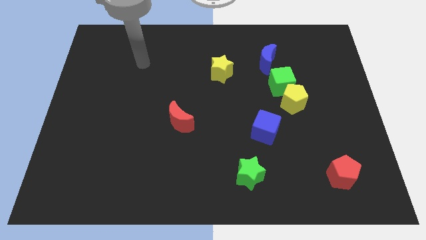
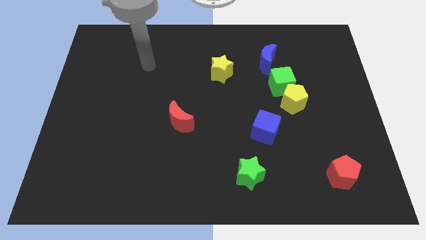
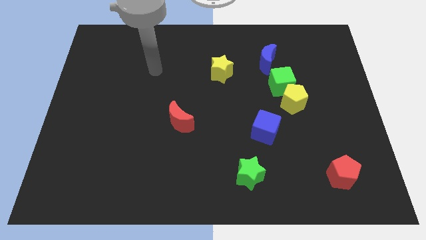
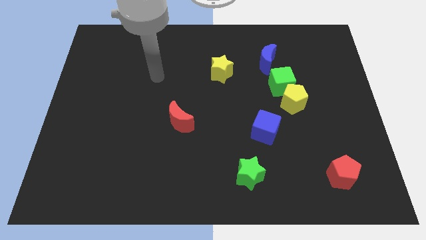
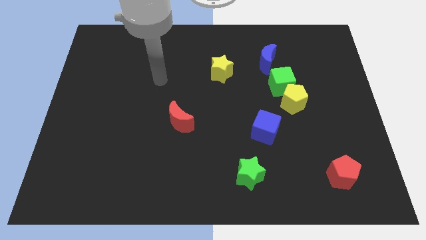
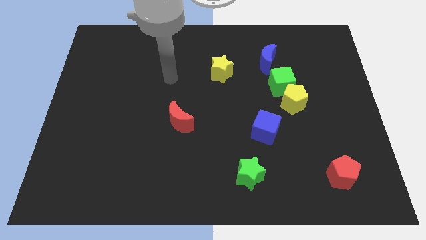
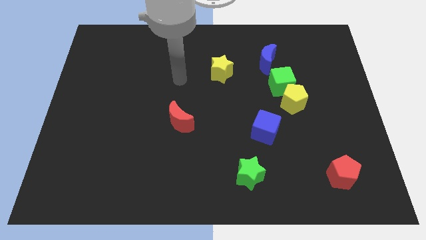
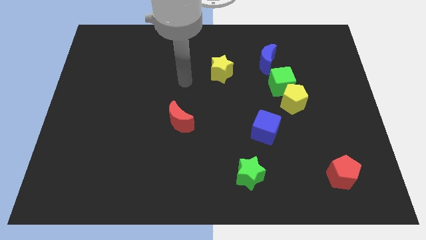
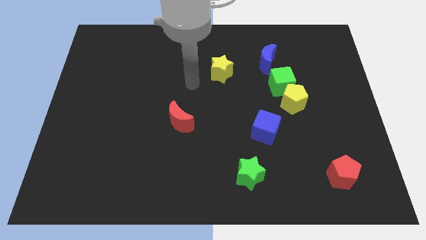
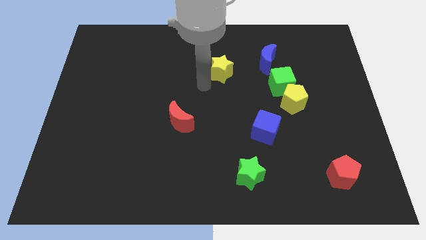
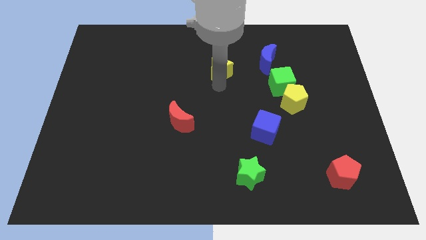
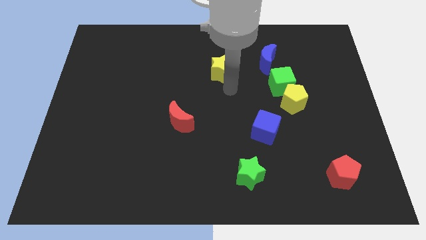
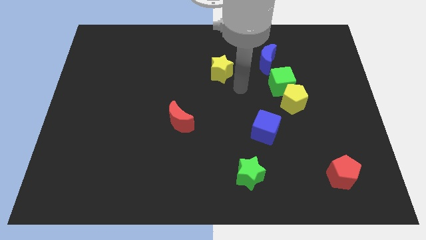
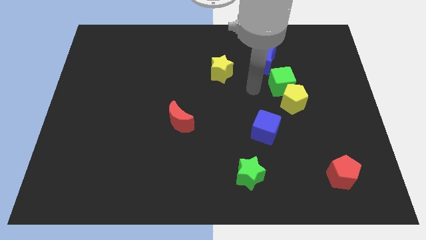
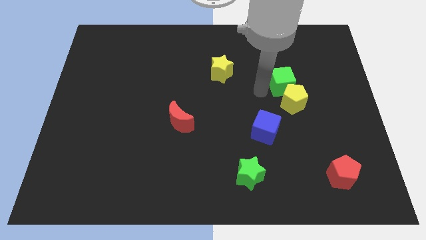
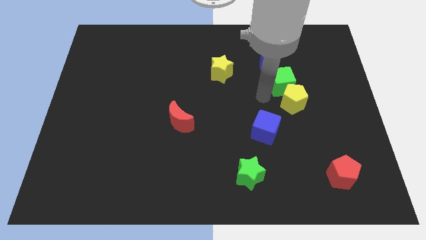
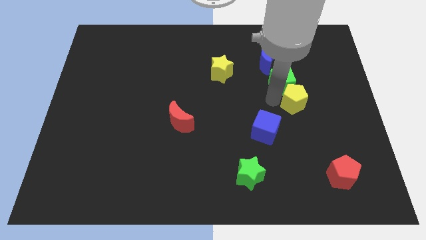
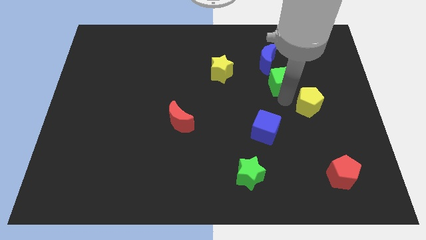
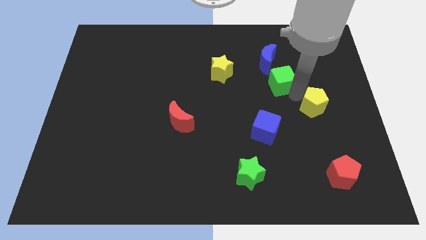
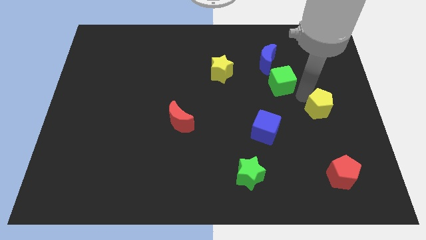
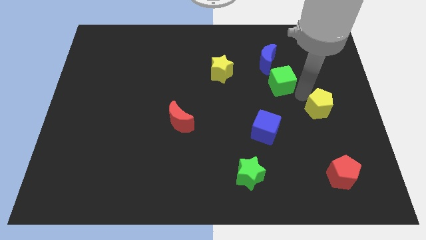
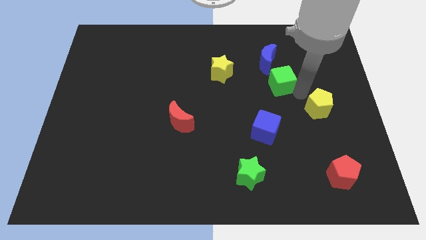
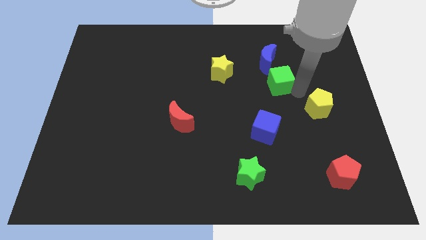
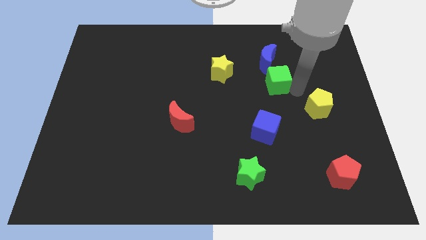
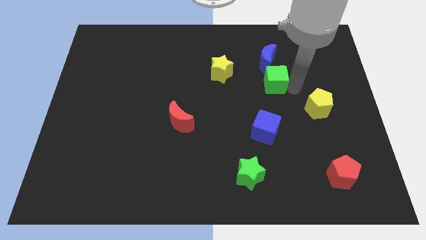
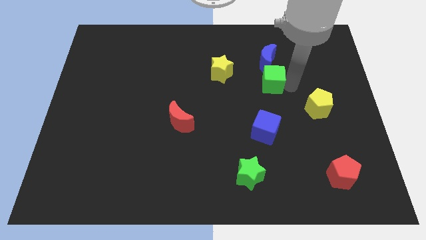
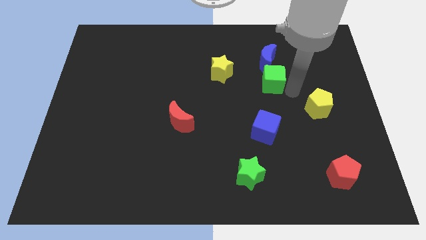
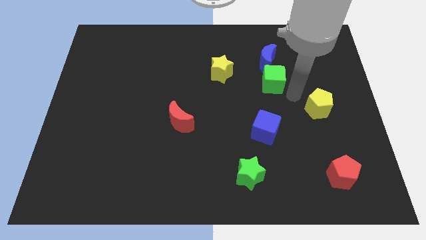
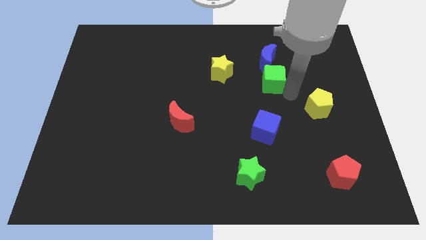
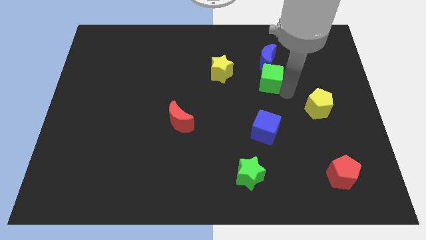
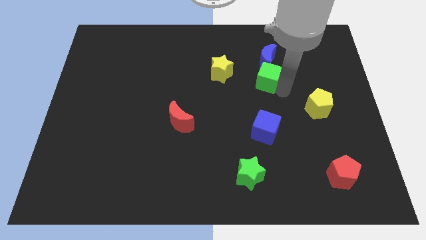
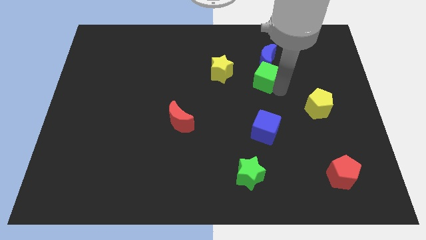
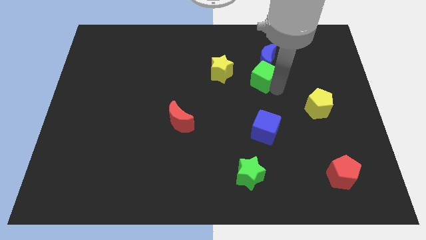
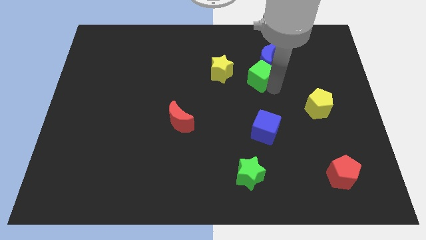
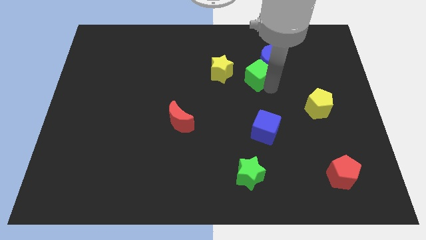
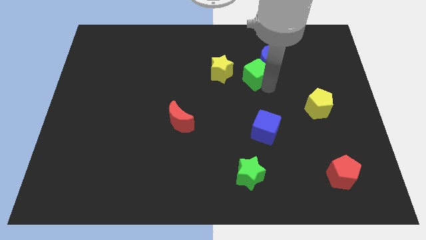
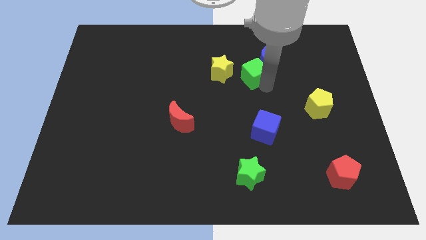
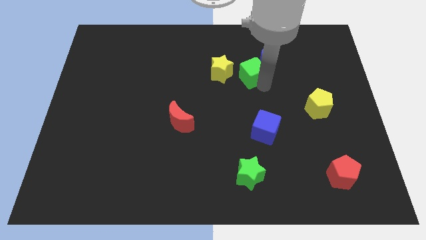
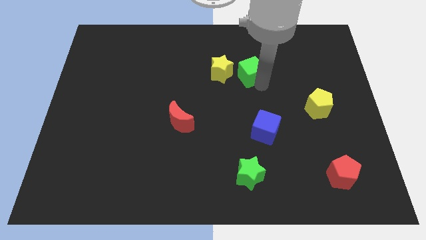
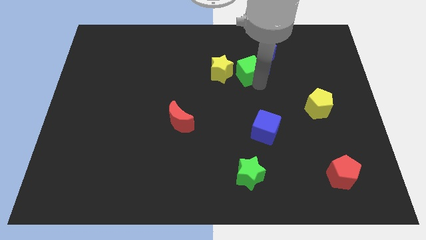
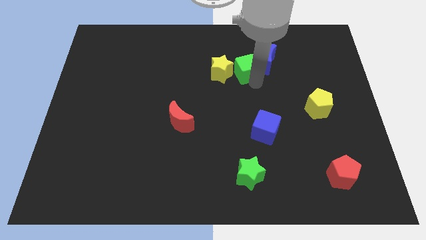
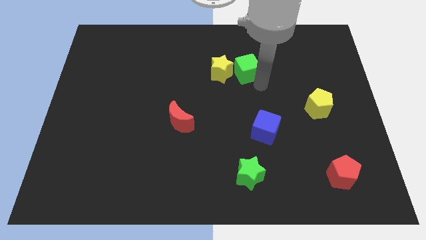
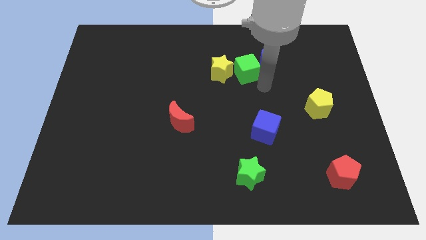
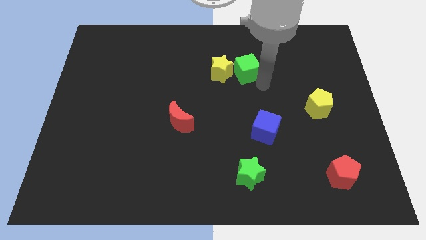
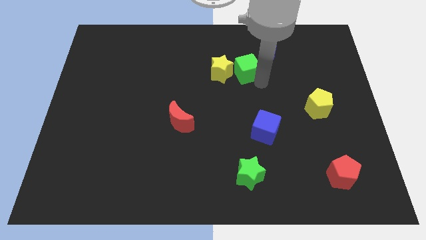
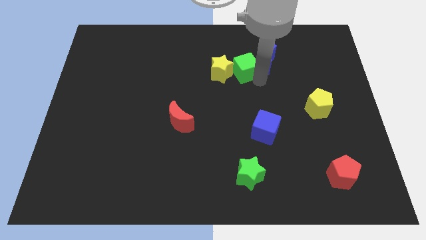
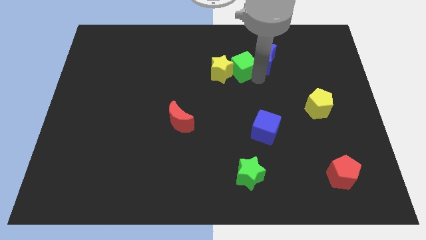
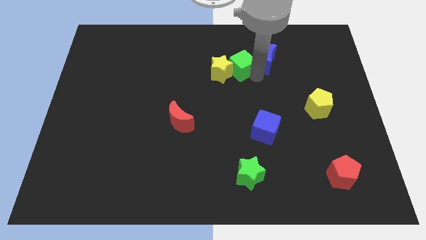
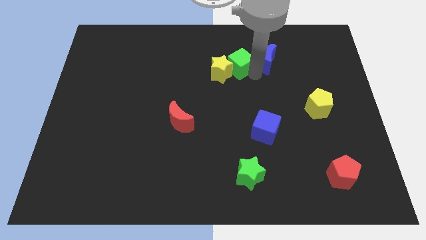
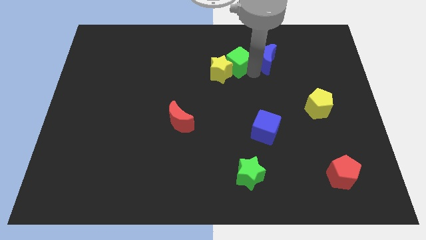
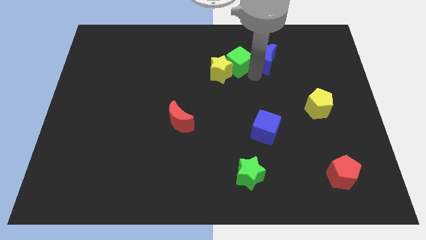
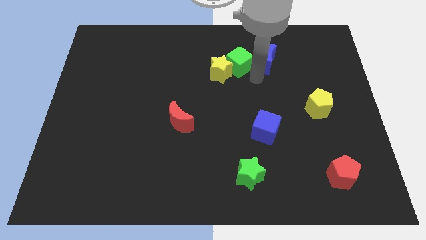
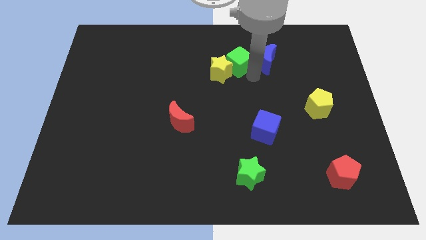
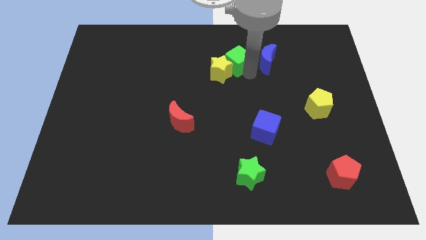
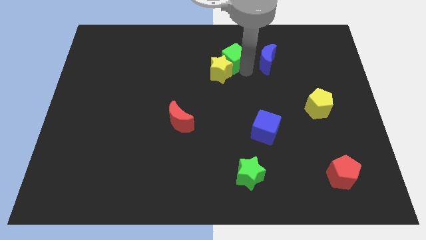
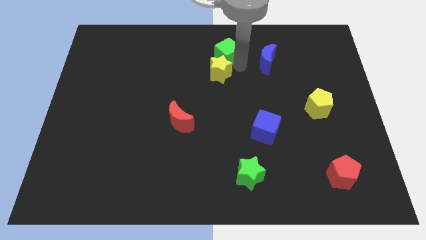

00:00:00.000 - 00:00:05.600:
slide the green cube to the top side

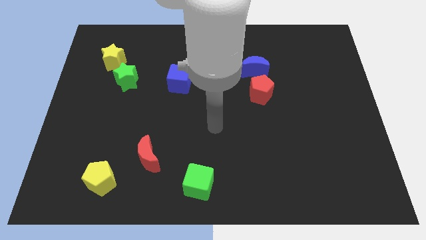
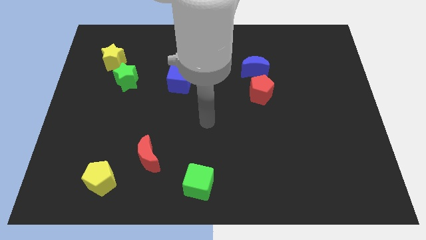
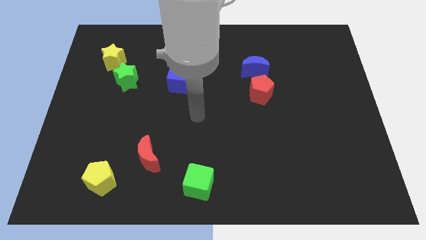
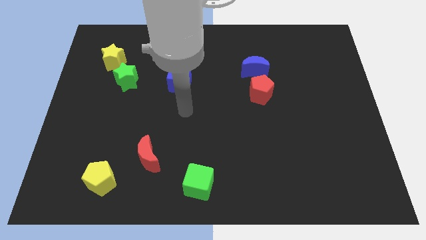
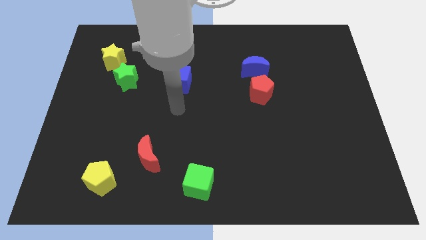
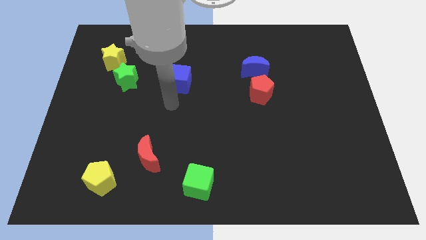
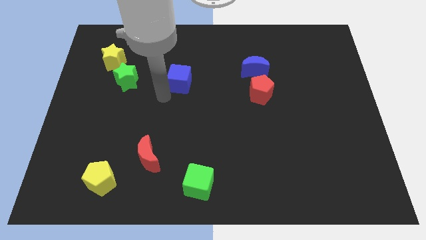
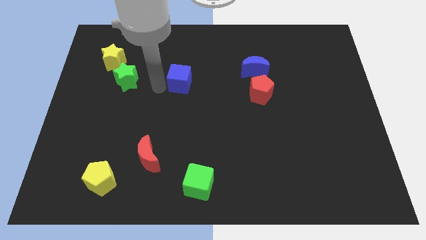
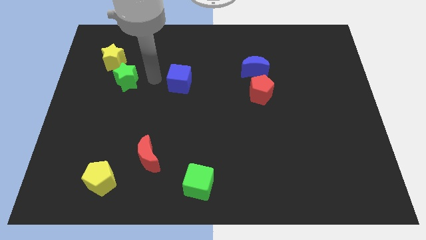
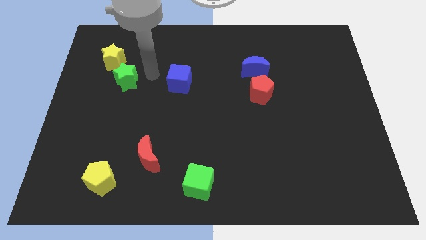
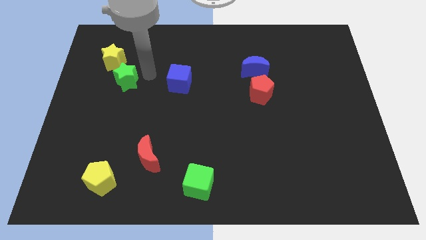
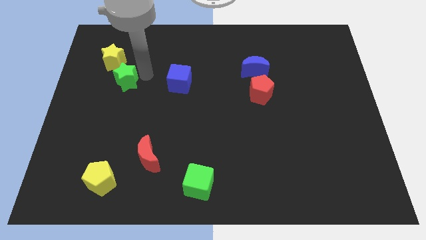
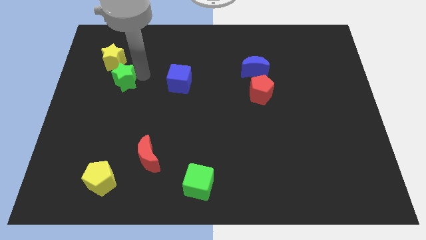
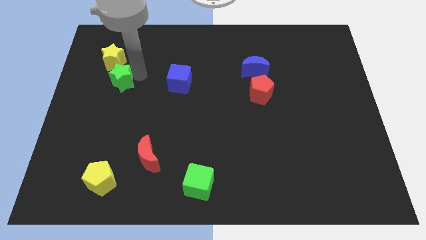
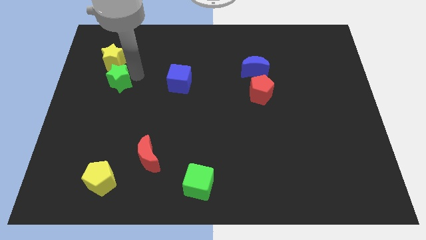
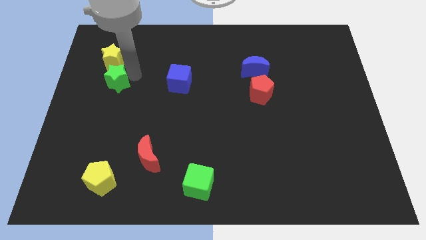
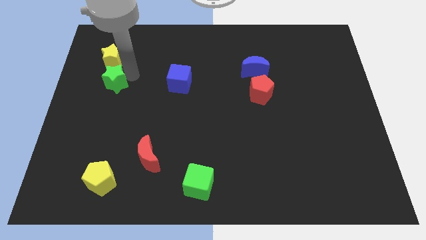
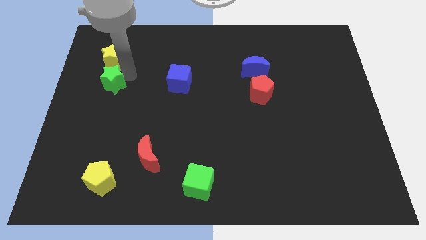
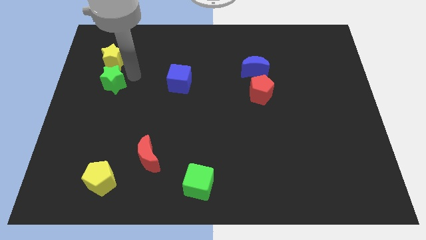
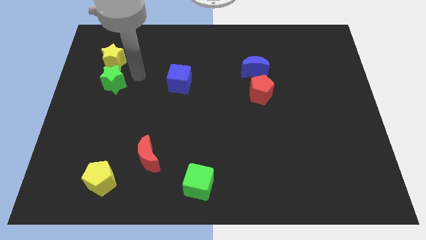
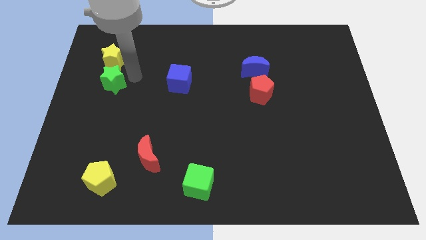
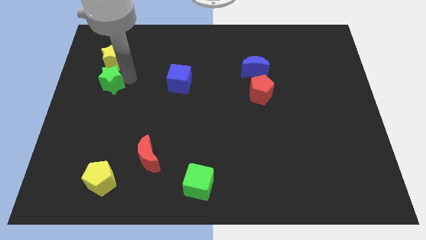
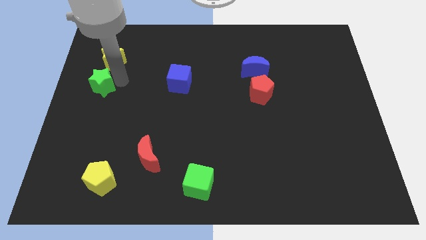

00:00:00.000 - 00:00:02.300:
push the green star to the left side of the board
